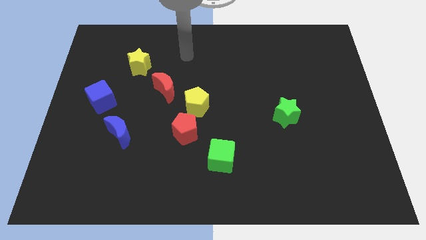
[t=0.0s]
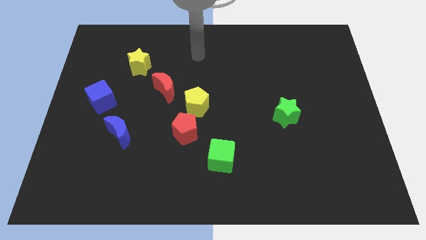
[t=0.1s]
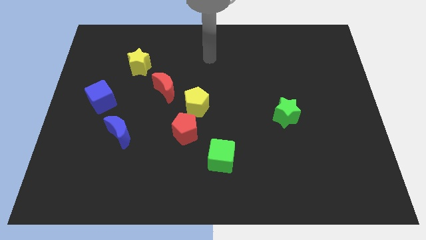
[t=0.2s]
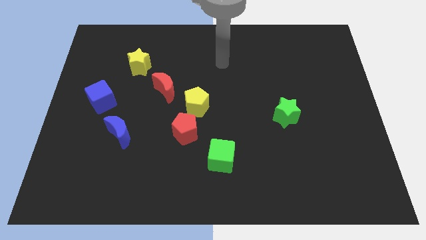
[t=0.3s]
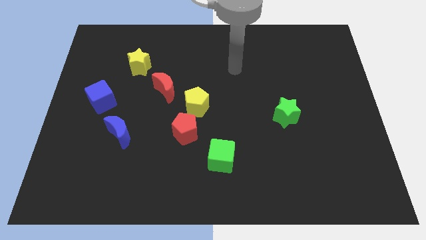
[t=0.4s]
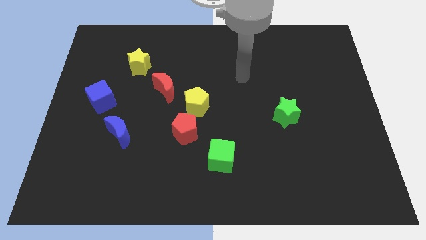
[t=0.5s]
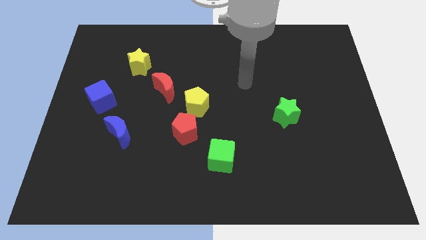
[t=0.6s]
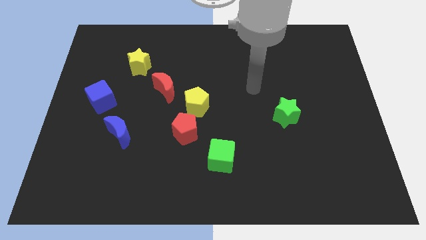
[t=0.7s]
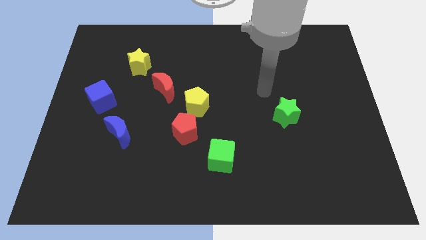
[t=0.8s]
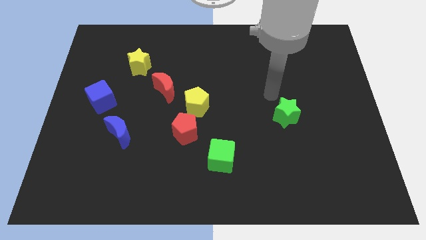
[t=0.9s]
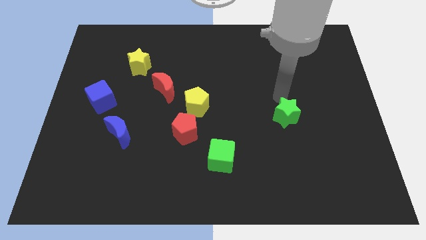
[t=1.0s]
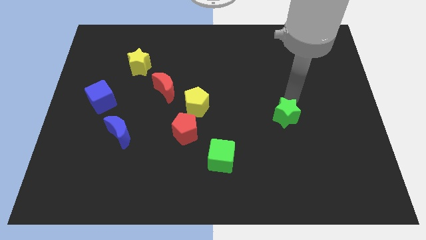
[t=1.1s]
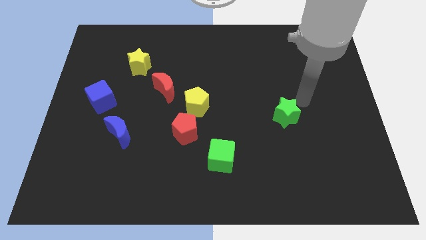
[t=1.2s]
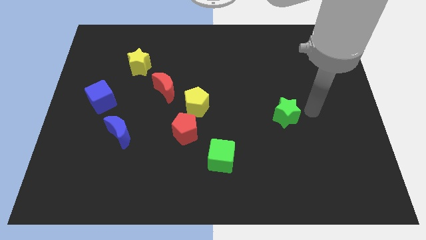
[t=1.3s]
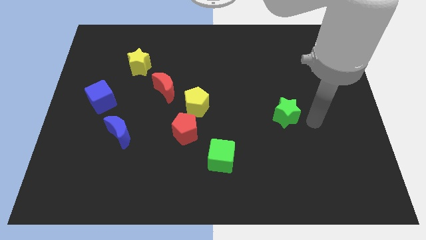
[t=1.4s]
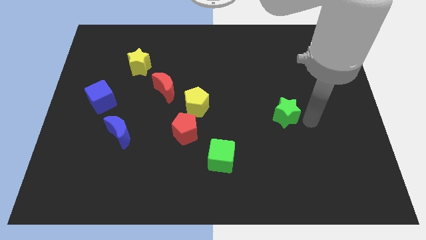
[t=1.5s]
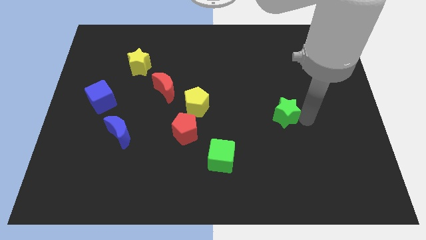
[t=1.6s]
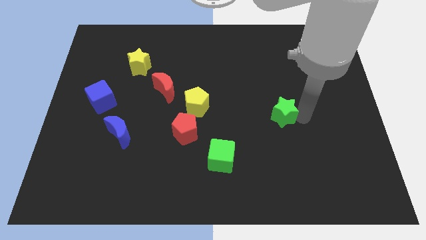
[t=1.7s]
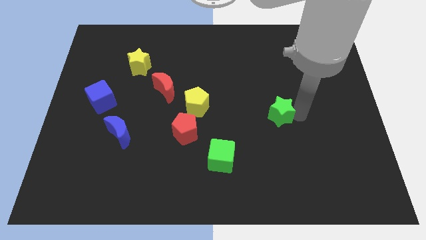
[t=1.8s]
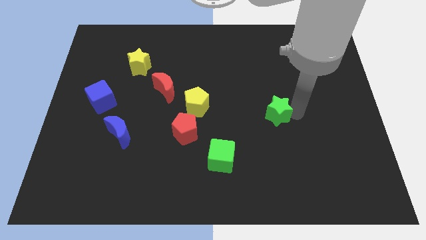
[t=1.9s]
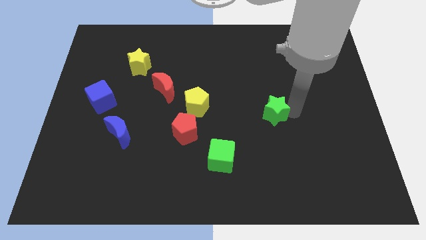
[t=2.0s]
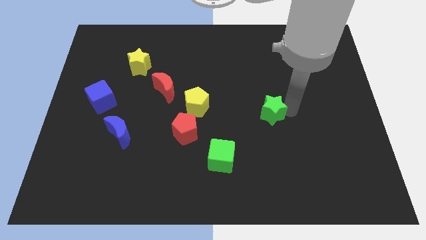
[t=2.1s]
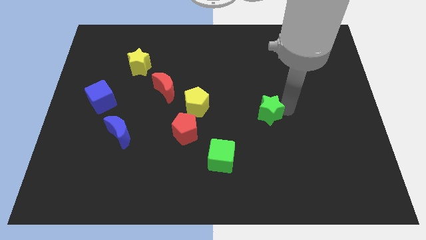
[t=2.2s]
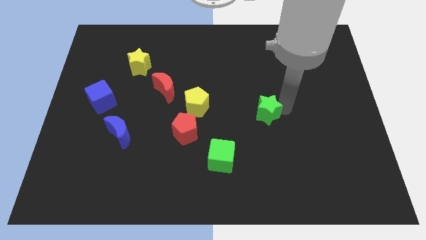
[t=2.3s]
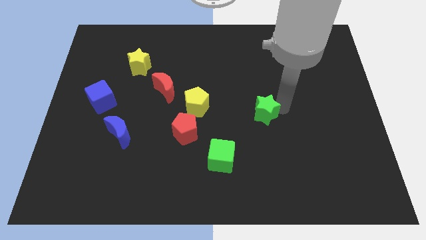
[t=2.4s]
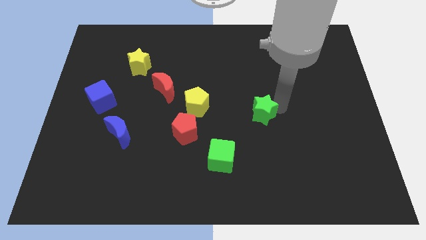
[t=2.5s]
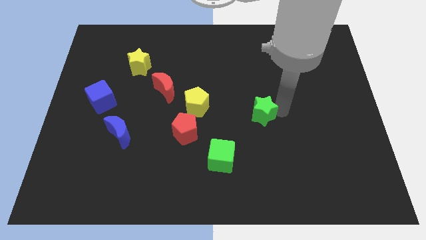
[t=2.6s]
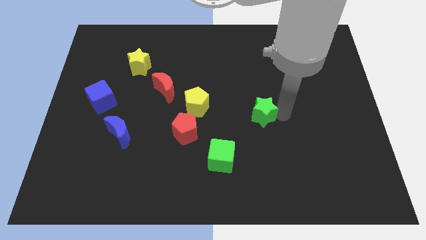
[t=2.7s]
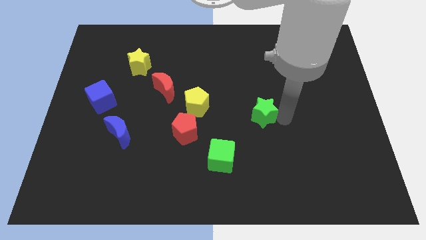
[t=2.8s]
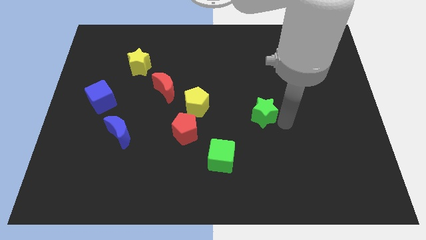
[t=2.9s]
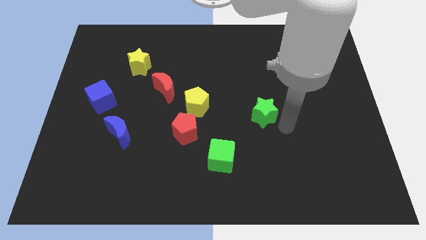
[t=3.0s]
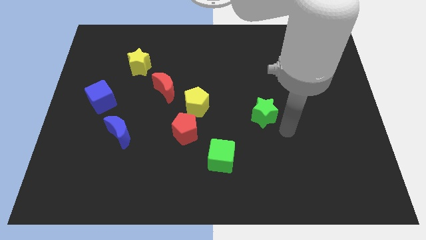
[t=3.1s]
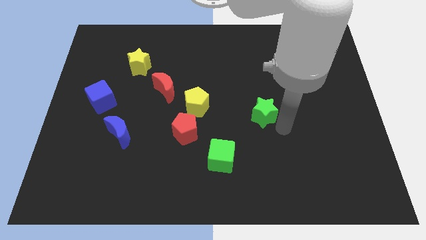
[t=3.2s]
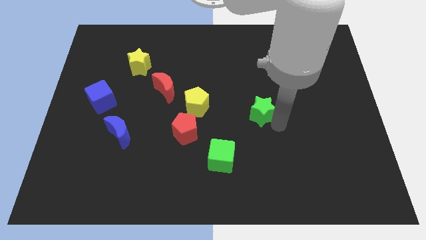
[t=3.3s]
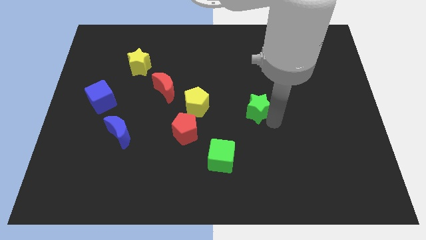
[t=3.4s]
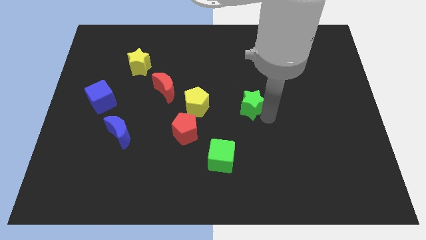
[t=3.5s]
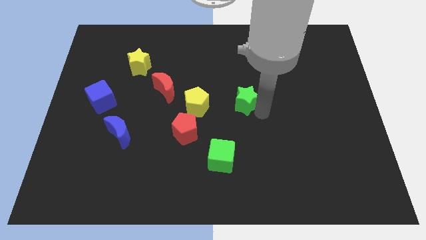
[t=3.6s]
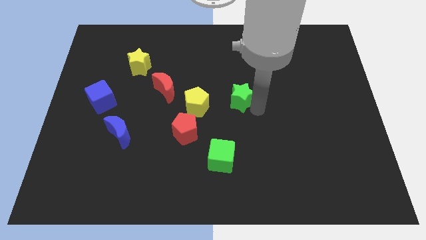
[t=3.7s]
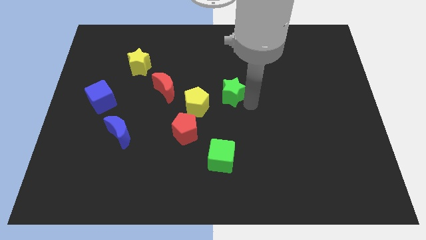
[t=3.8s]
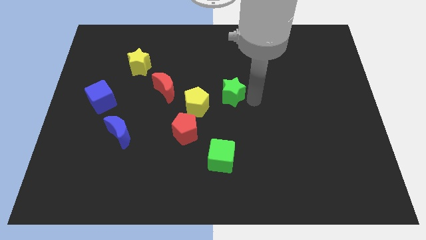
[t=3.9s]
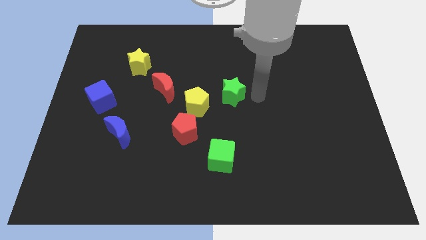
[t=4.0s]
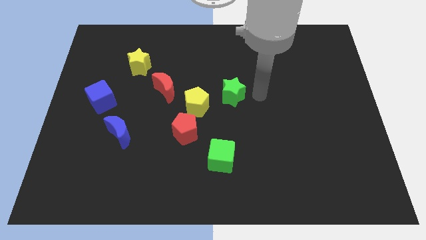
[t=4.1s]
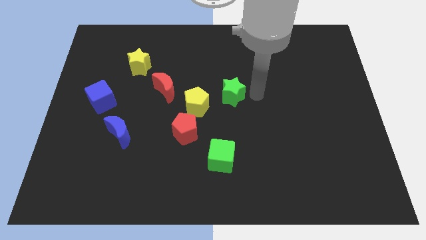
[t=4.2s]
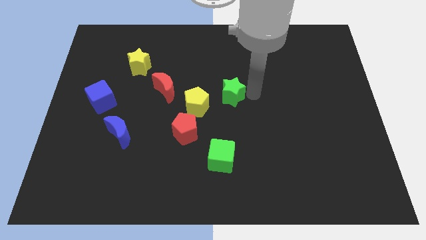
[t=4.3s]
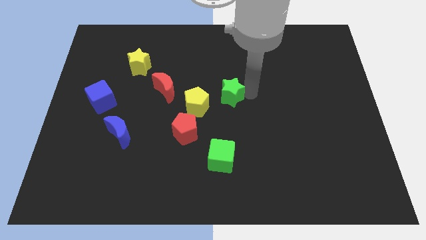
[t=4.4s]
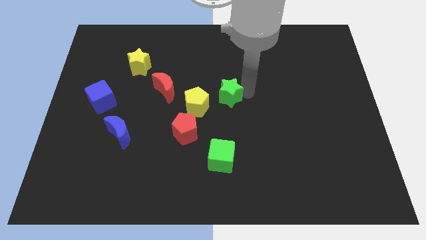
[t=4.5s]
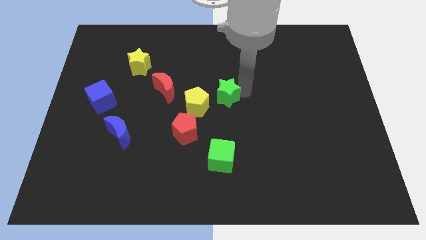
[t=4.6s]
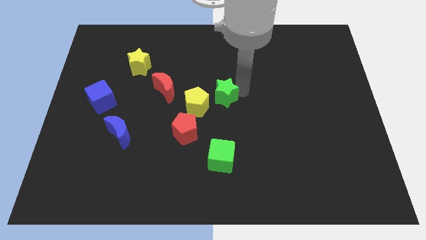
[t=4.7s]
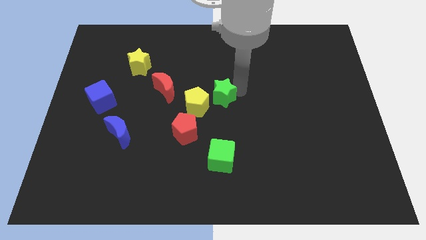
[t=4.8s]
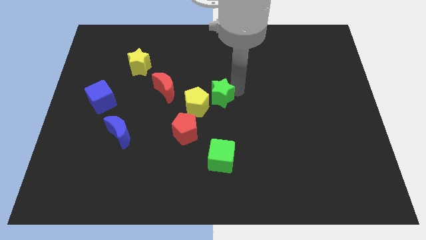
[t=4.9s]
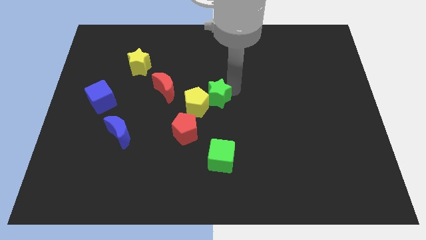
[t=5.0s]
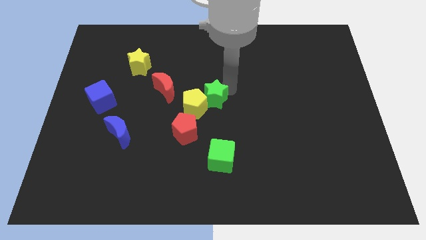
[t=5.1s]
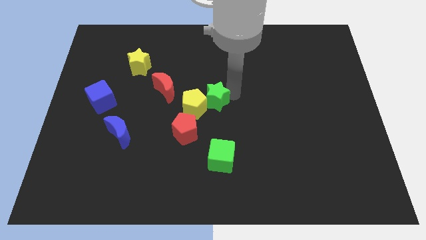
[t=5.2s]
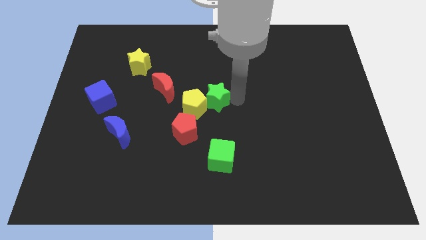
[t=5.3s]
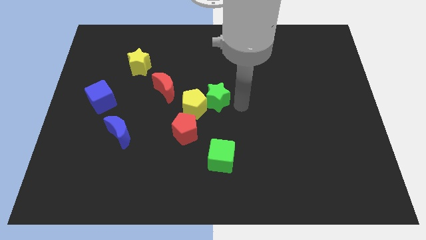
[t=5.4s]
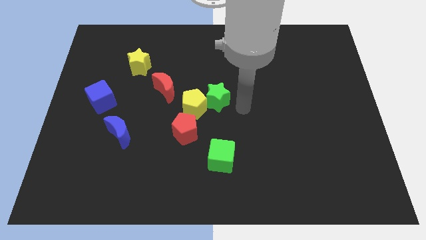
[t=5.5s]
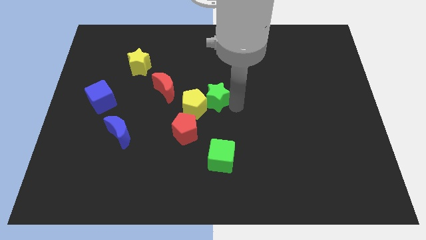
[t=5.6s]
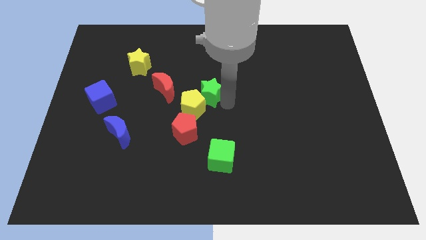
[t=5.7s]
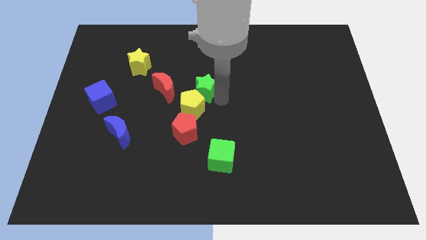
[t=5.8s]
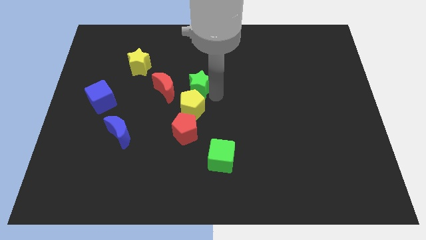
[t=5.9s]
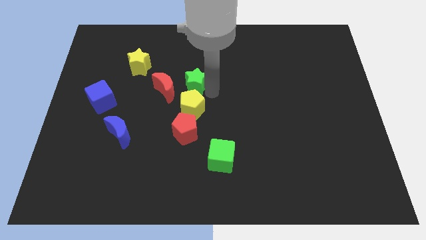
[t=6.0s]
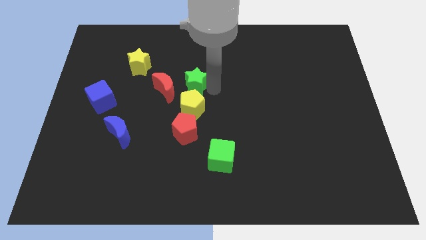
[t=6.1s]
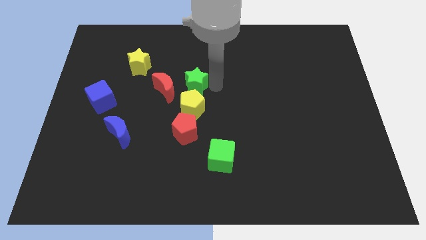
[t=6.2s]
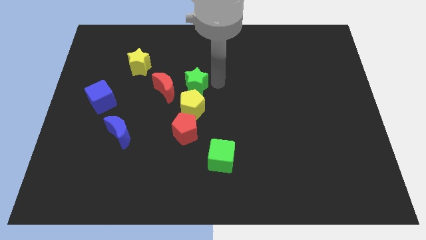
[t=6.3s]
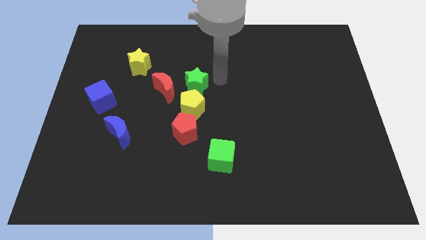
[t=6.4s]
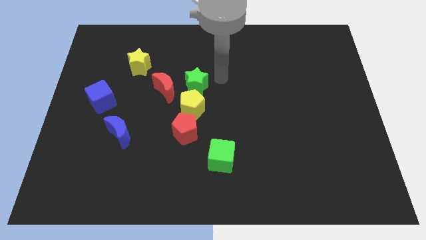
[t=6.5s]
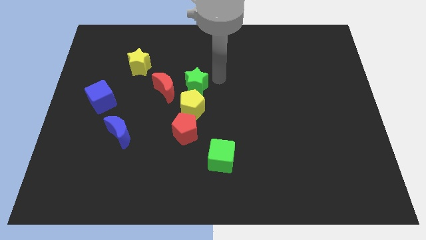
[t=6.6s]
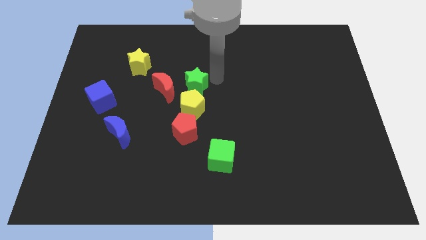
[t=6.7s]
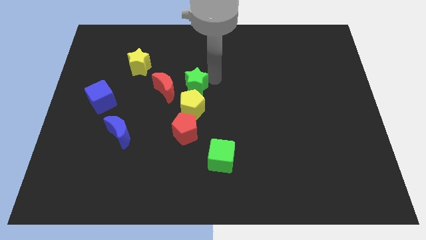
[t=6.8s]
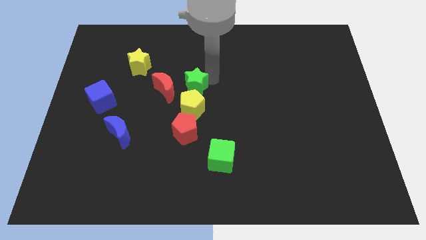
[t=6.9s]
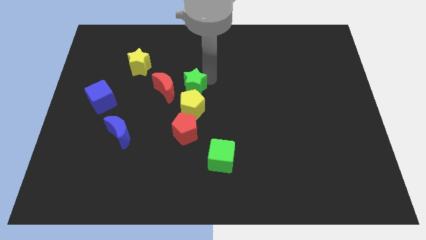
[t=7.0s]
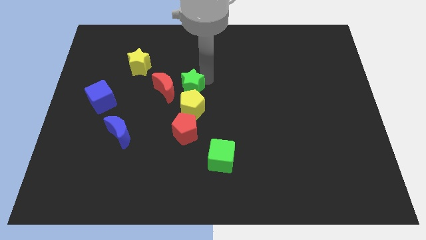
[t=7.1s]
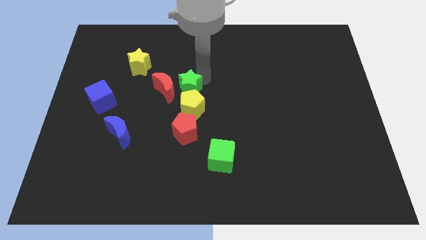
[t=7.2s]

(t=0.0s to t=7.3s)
put the green star close to the red moon

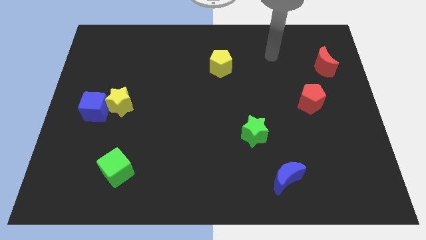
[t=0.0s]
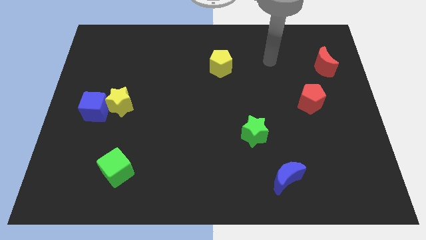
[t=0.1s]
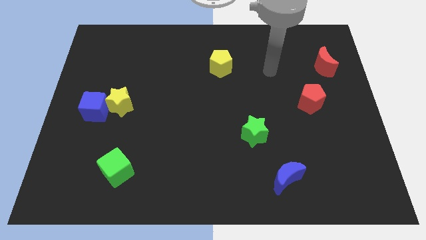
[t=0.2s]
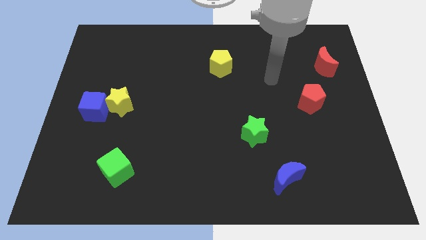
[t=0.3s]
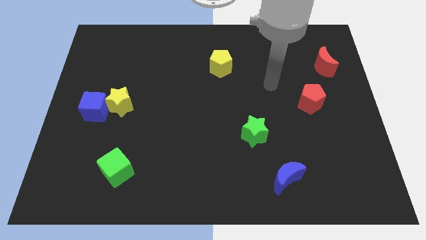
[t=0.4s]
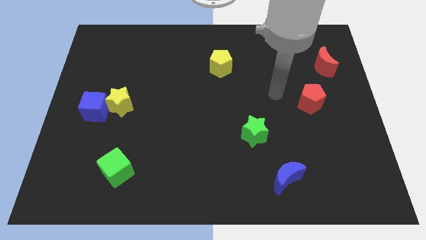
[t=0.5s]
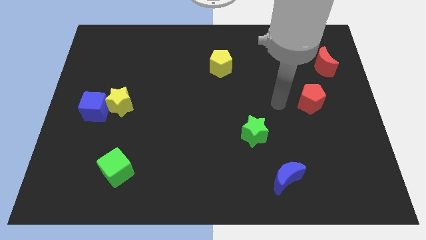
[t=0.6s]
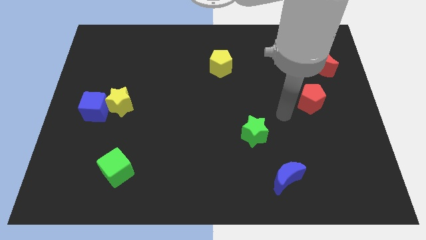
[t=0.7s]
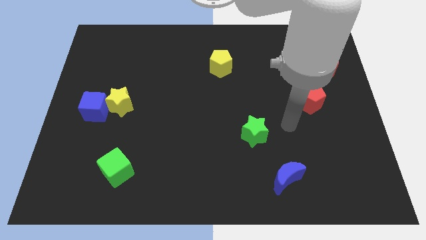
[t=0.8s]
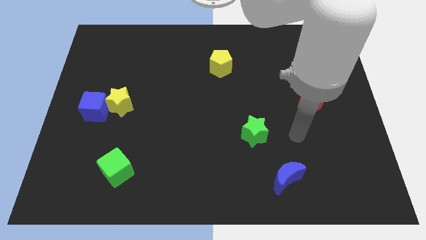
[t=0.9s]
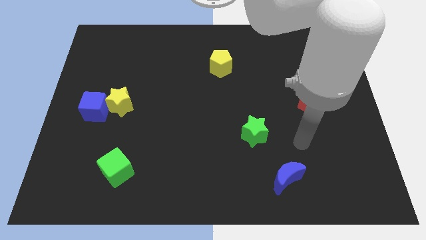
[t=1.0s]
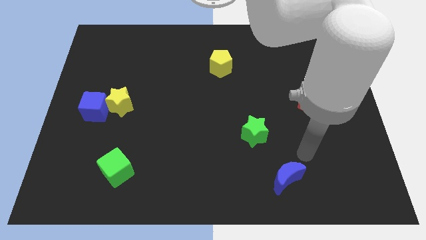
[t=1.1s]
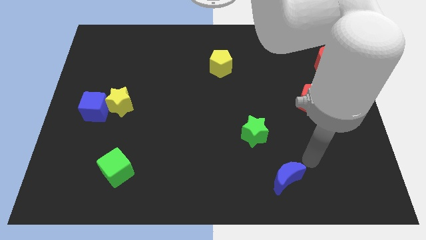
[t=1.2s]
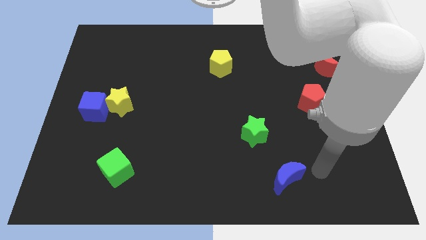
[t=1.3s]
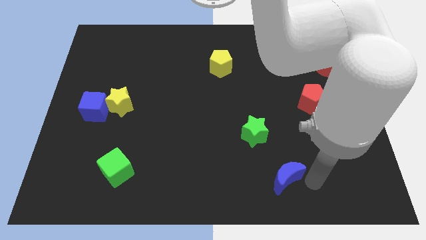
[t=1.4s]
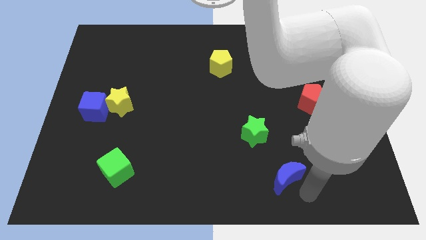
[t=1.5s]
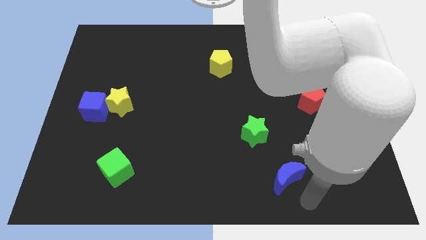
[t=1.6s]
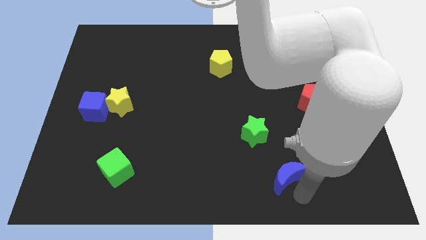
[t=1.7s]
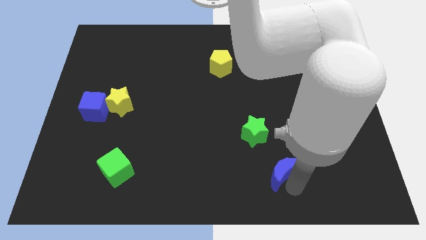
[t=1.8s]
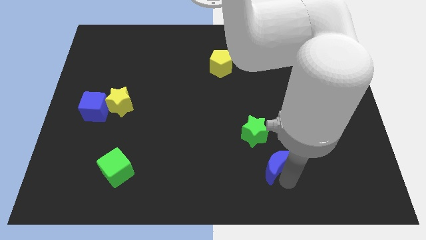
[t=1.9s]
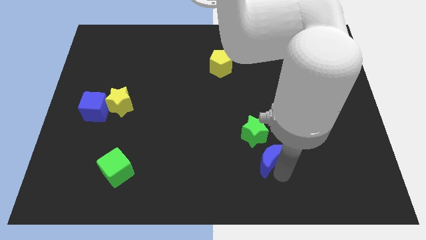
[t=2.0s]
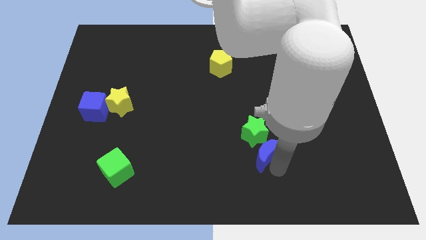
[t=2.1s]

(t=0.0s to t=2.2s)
slide the blue moon close to the green star
